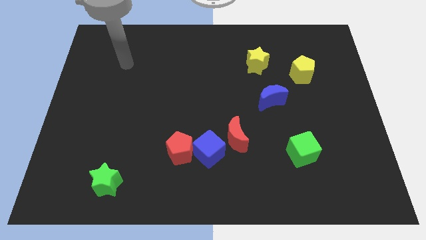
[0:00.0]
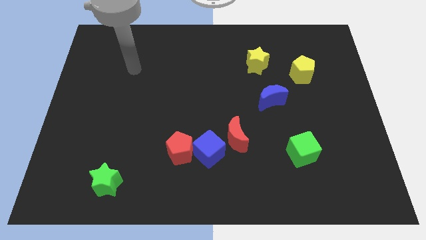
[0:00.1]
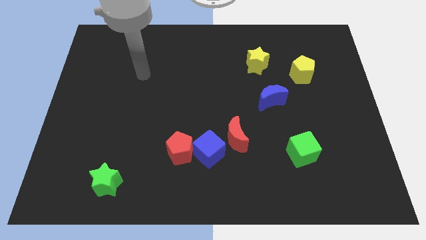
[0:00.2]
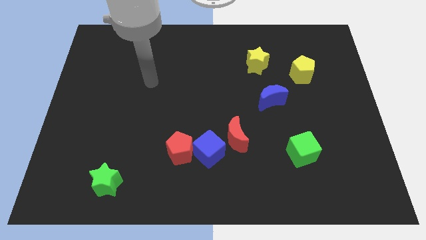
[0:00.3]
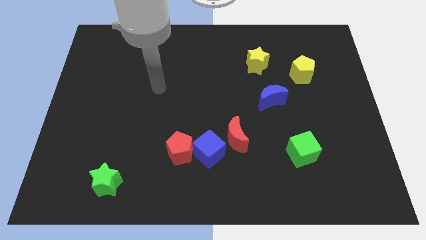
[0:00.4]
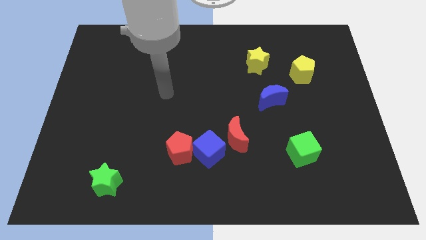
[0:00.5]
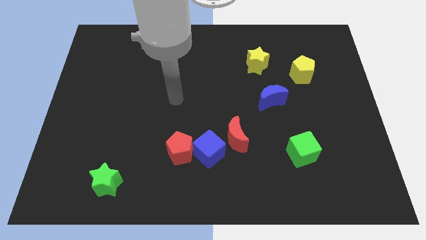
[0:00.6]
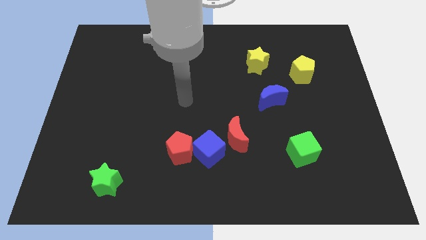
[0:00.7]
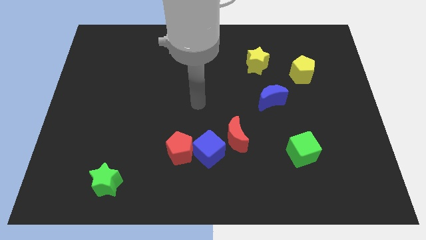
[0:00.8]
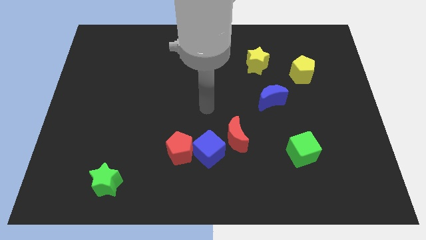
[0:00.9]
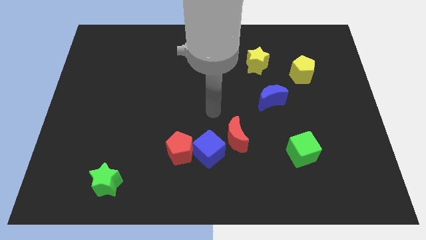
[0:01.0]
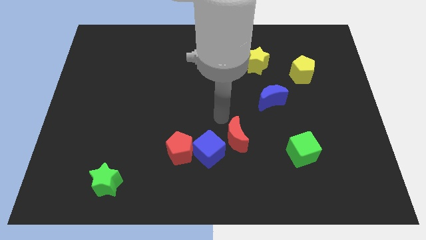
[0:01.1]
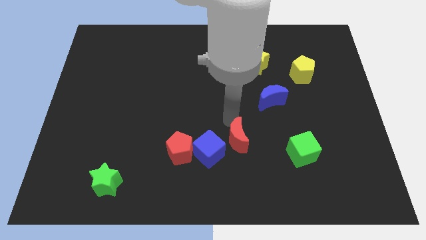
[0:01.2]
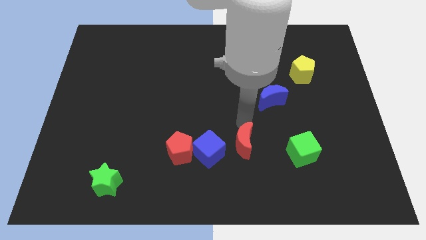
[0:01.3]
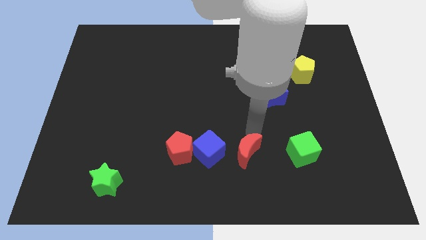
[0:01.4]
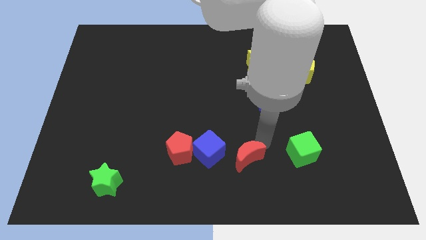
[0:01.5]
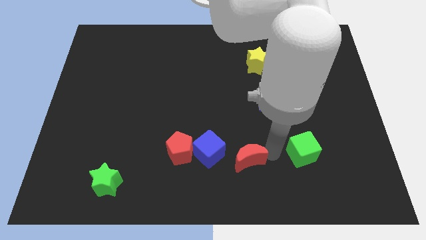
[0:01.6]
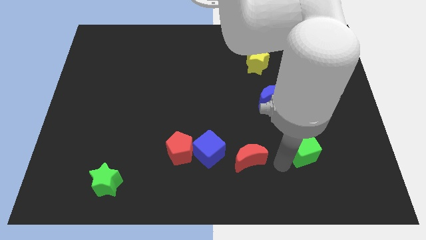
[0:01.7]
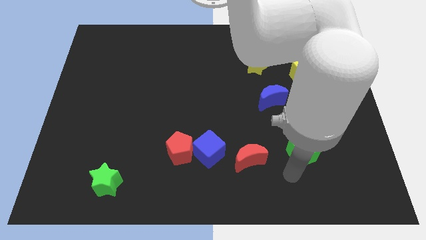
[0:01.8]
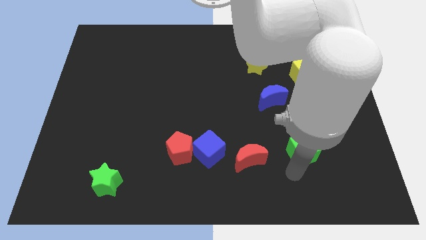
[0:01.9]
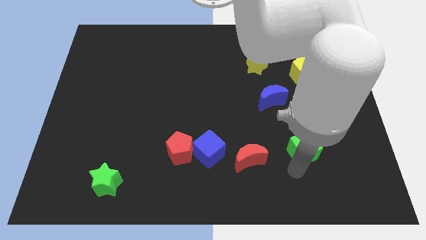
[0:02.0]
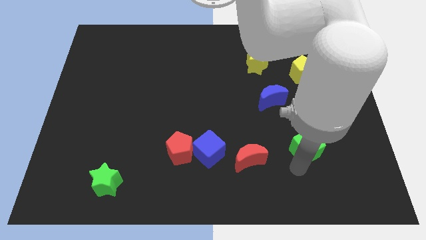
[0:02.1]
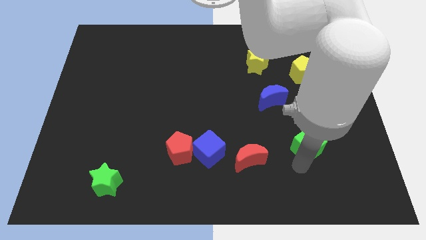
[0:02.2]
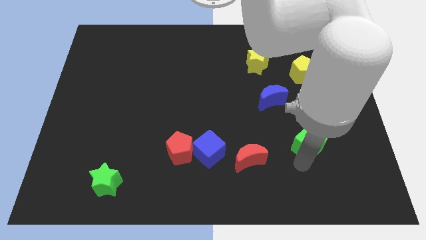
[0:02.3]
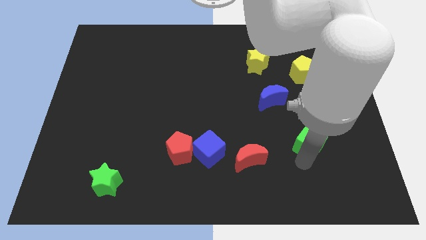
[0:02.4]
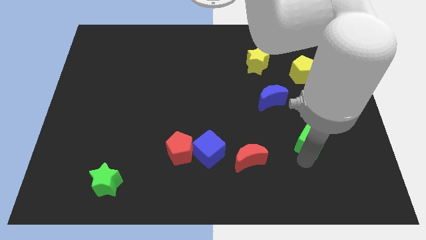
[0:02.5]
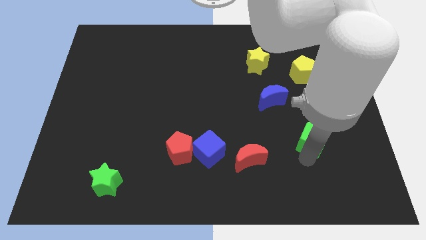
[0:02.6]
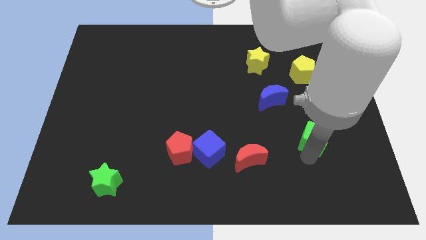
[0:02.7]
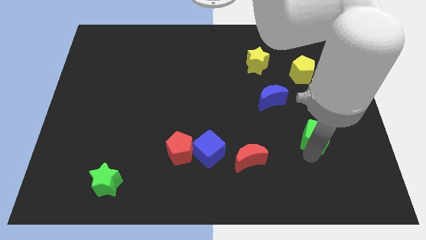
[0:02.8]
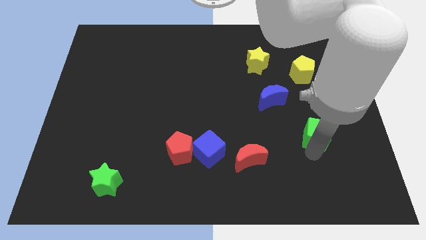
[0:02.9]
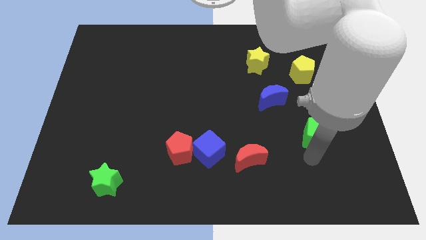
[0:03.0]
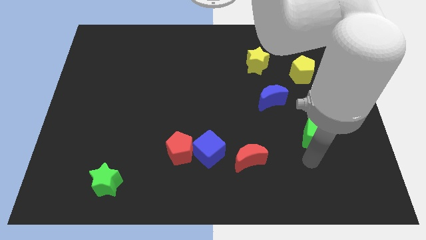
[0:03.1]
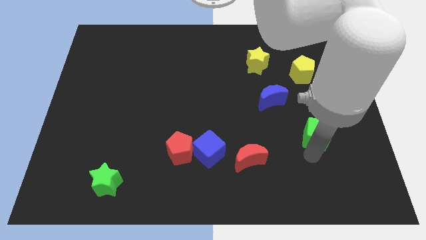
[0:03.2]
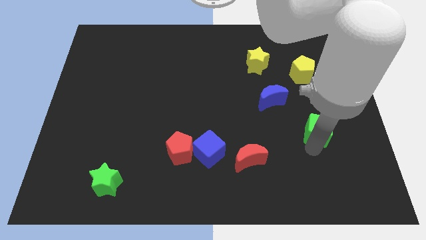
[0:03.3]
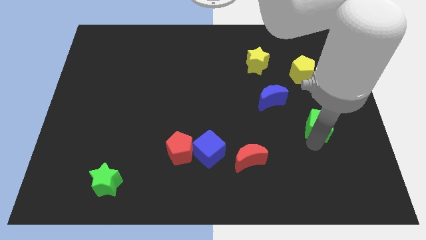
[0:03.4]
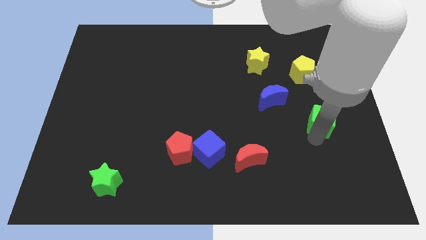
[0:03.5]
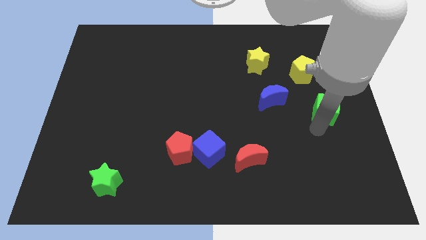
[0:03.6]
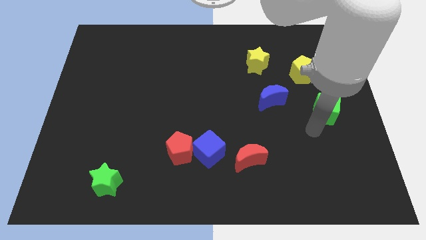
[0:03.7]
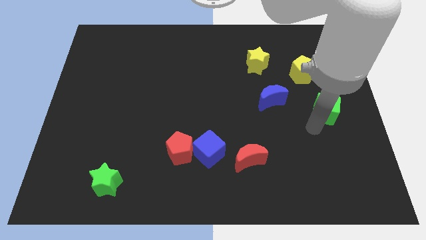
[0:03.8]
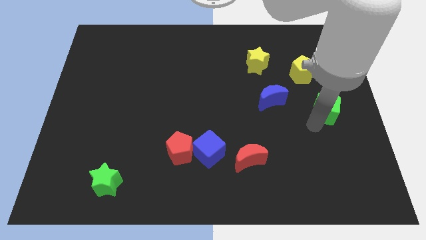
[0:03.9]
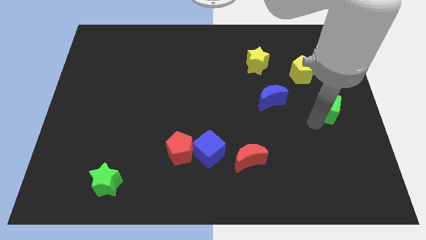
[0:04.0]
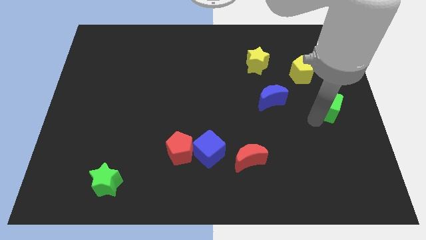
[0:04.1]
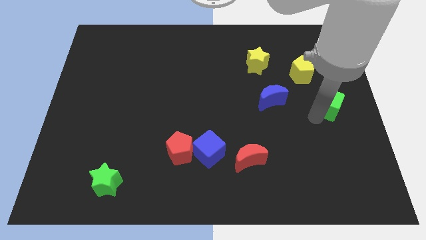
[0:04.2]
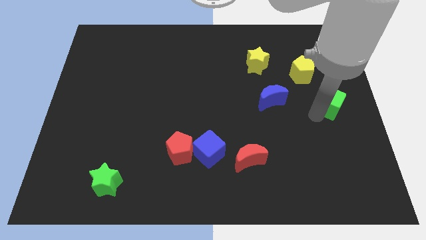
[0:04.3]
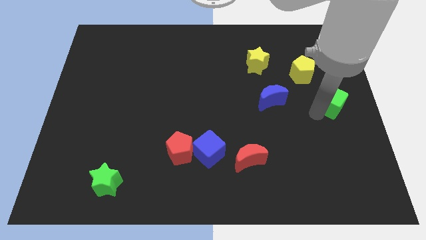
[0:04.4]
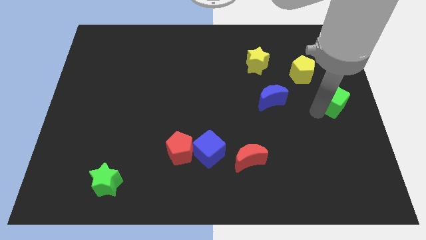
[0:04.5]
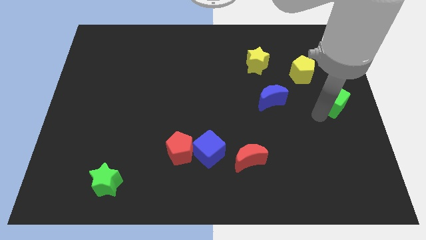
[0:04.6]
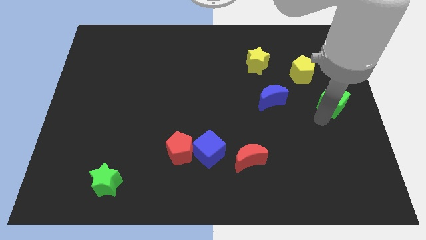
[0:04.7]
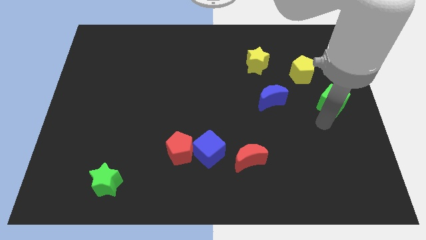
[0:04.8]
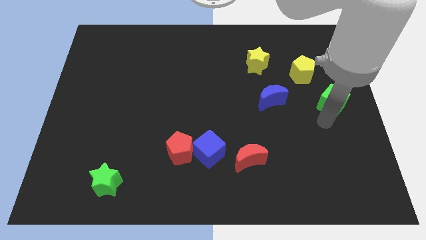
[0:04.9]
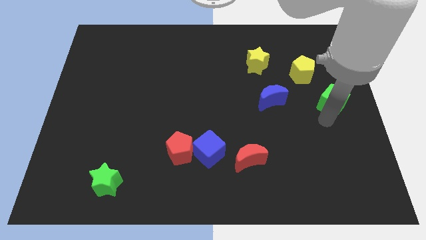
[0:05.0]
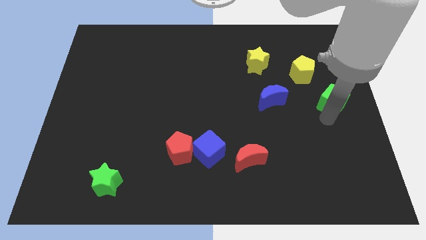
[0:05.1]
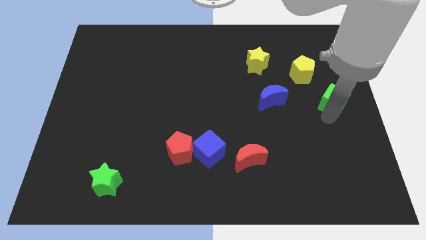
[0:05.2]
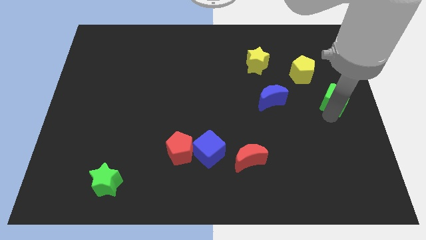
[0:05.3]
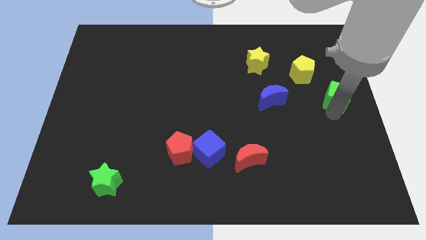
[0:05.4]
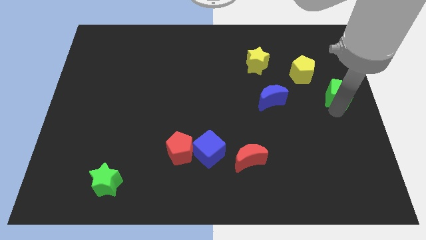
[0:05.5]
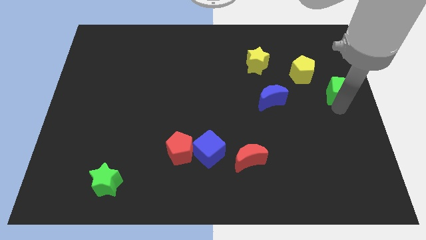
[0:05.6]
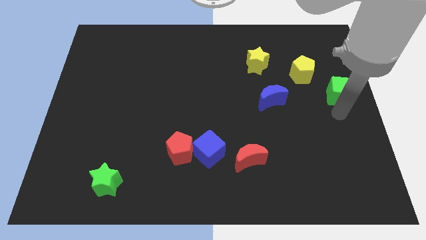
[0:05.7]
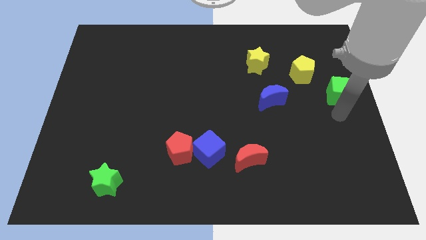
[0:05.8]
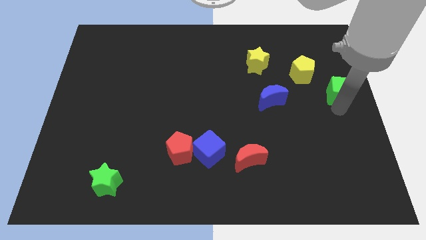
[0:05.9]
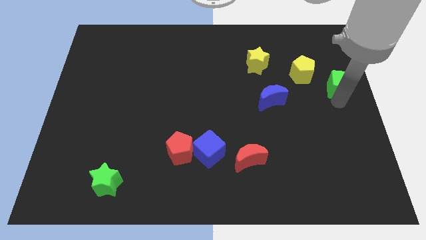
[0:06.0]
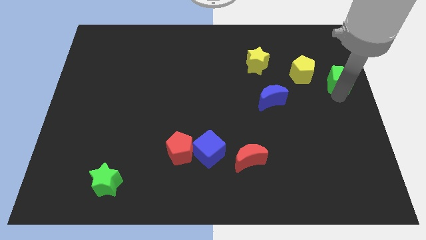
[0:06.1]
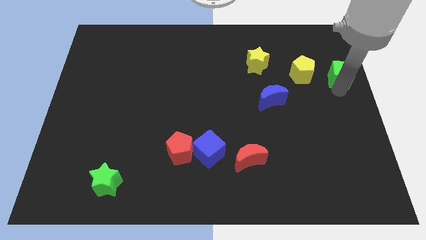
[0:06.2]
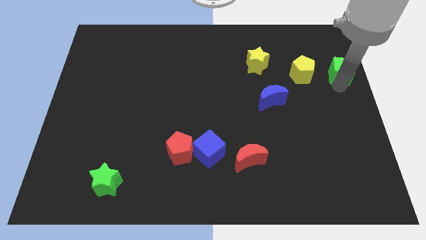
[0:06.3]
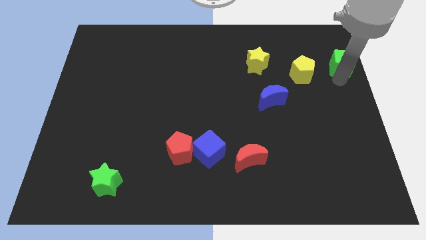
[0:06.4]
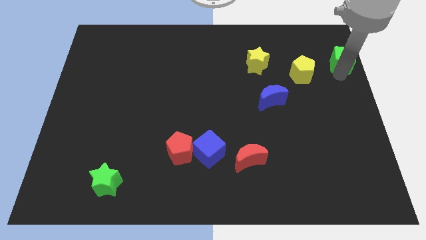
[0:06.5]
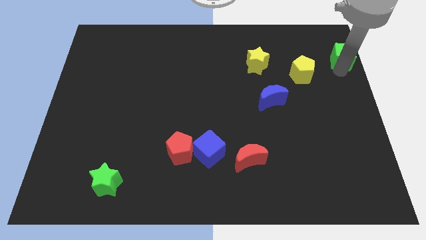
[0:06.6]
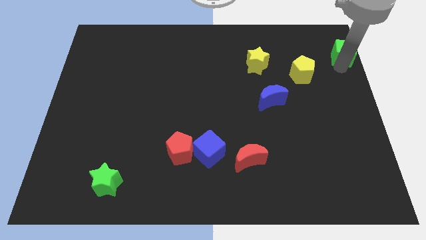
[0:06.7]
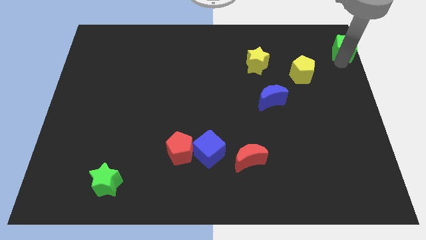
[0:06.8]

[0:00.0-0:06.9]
put the green cube to the top right corner

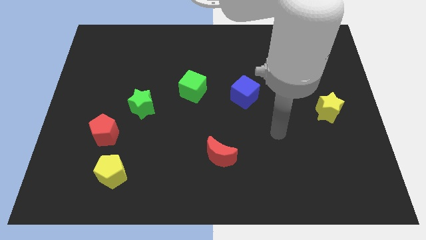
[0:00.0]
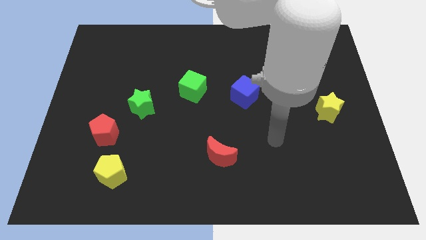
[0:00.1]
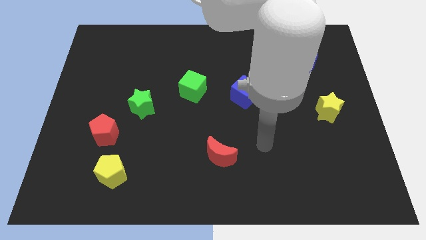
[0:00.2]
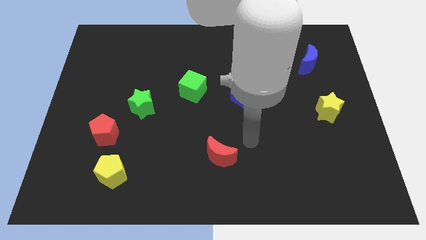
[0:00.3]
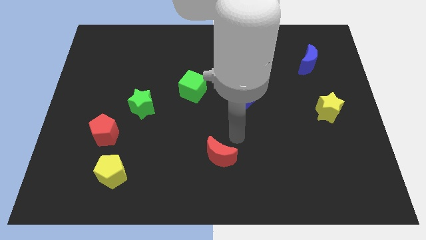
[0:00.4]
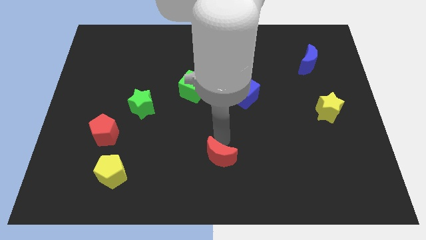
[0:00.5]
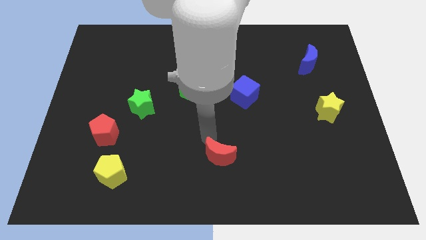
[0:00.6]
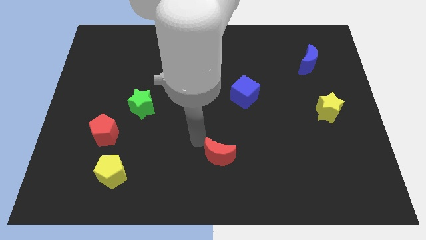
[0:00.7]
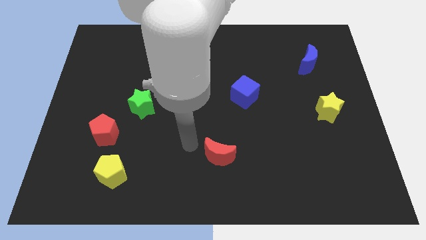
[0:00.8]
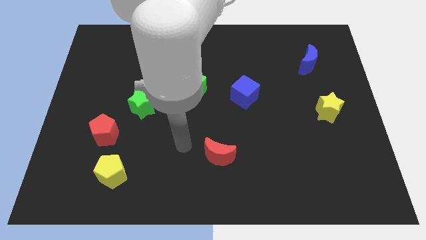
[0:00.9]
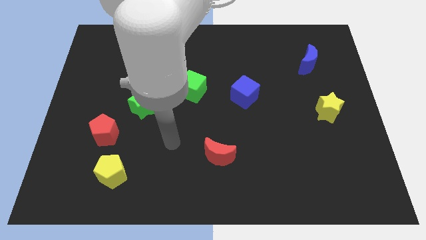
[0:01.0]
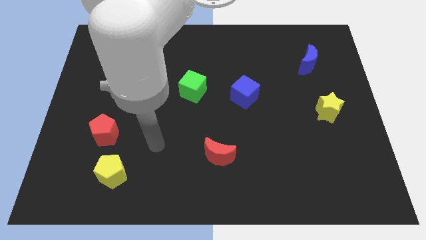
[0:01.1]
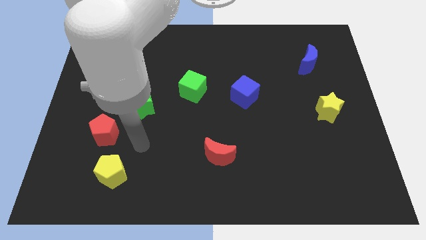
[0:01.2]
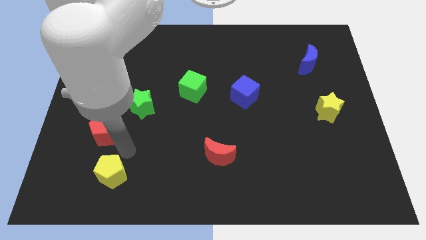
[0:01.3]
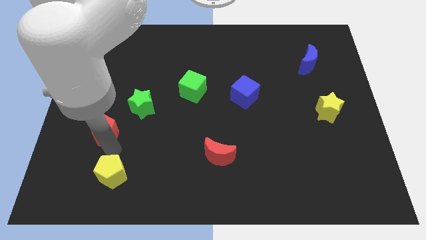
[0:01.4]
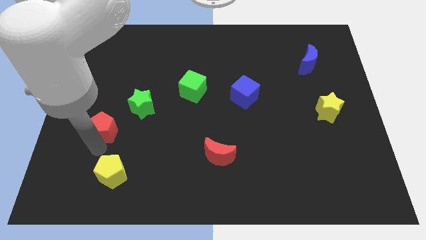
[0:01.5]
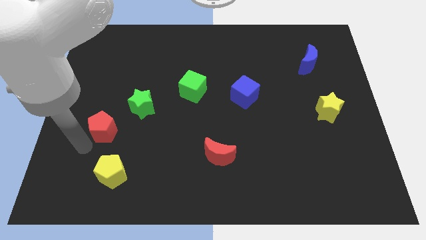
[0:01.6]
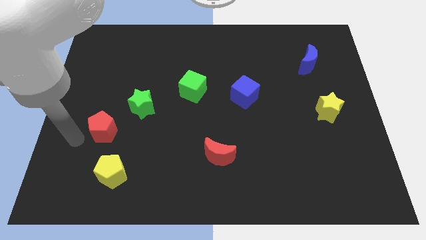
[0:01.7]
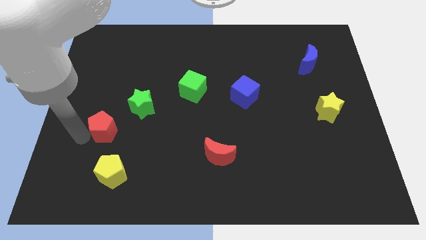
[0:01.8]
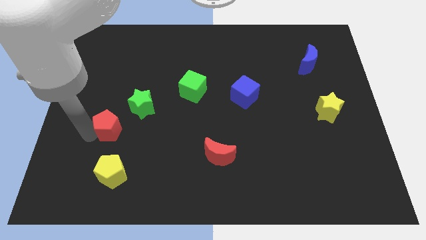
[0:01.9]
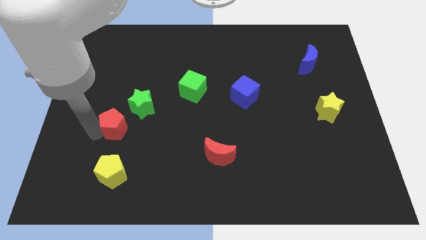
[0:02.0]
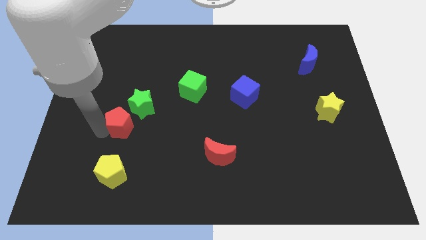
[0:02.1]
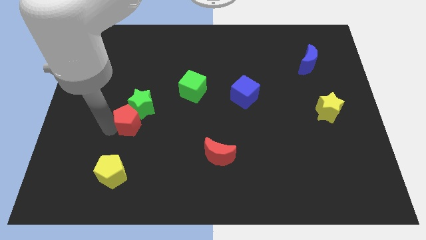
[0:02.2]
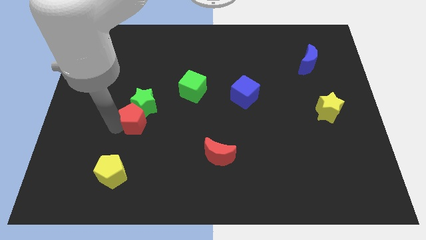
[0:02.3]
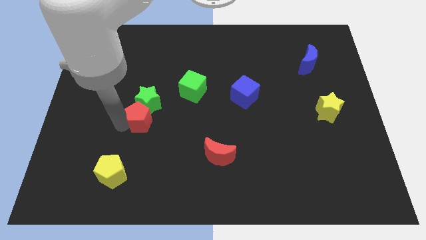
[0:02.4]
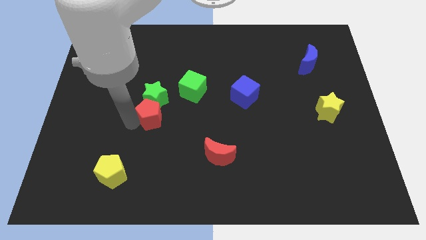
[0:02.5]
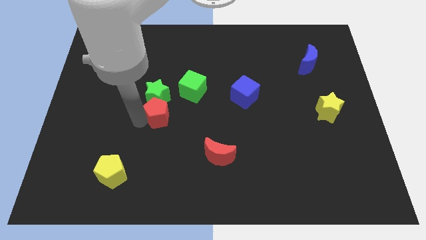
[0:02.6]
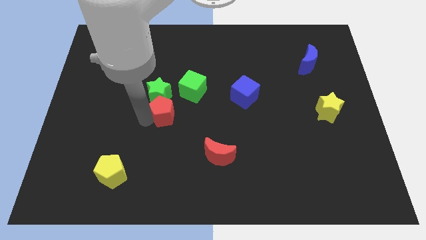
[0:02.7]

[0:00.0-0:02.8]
slide the red pentagon to the middle of the board
